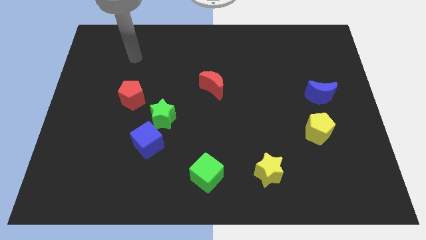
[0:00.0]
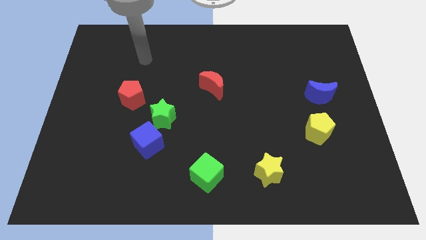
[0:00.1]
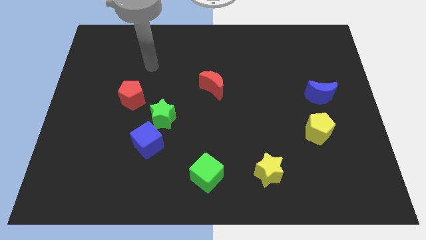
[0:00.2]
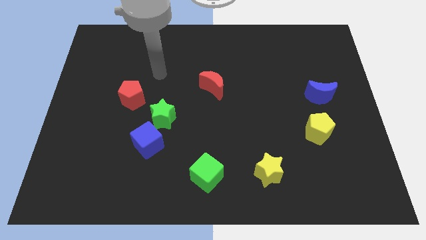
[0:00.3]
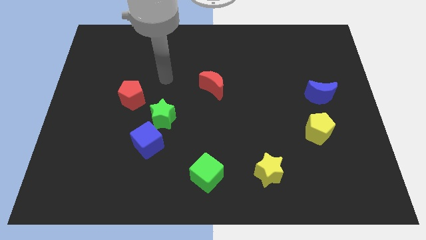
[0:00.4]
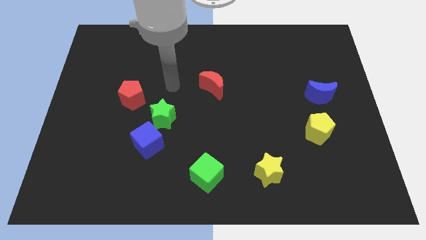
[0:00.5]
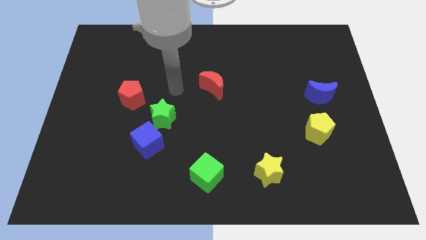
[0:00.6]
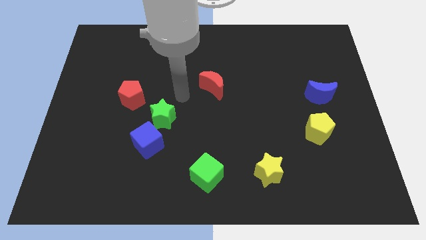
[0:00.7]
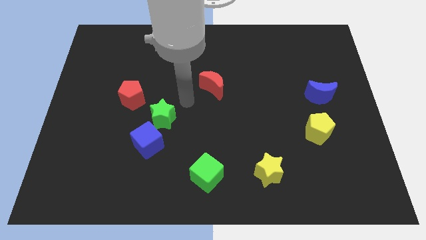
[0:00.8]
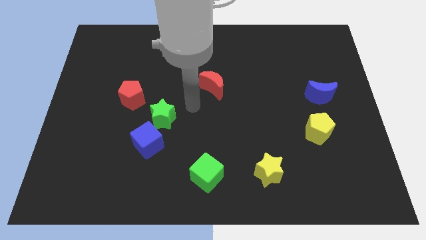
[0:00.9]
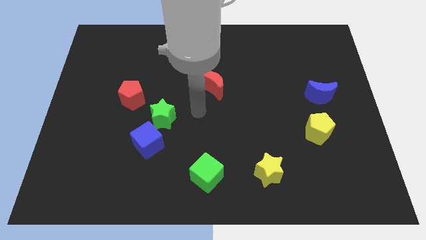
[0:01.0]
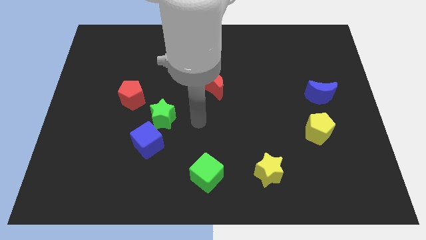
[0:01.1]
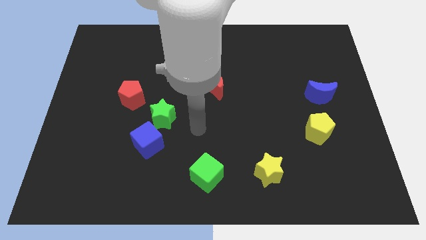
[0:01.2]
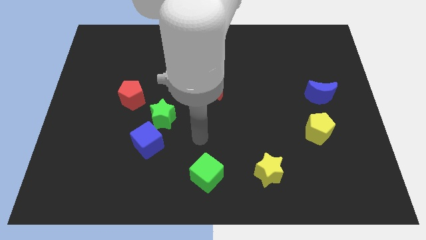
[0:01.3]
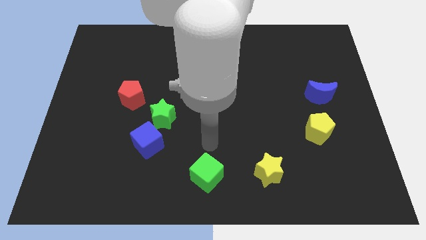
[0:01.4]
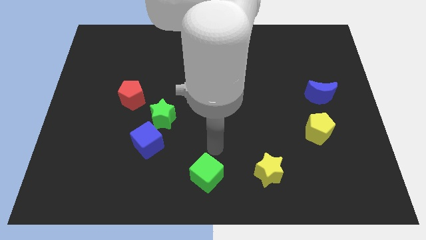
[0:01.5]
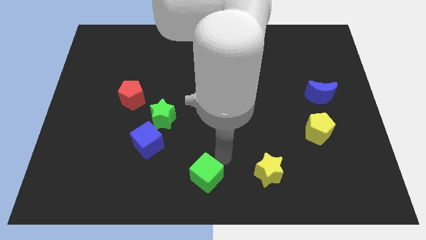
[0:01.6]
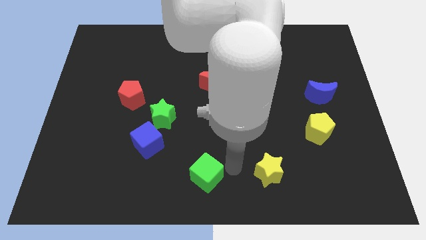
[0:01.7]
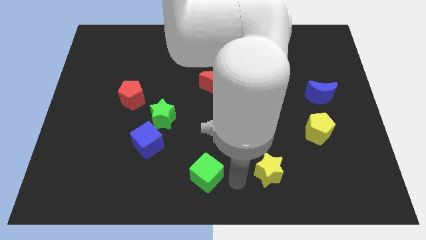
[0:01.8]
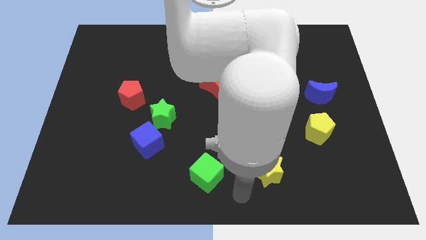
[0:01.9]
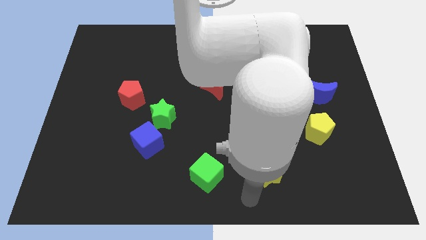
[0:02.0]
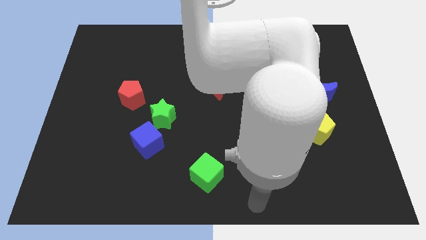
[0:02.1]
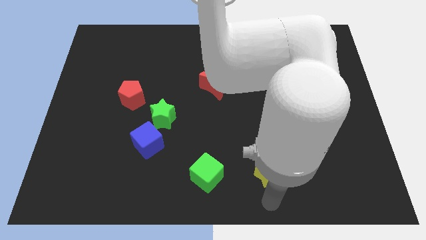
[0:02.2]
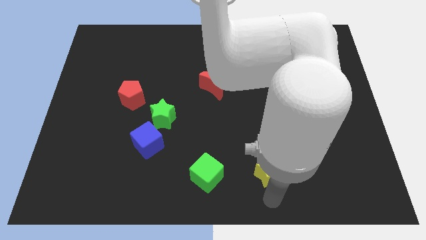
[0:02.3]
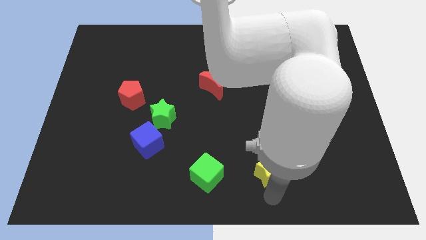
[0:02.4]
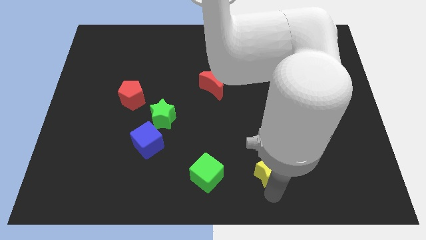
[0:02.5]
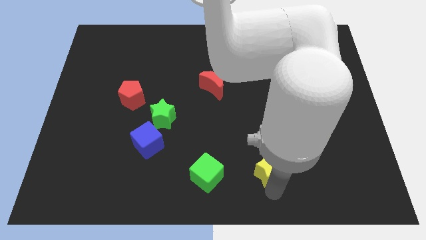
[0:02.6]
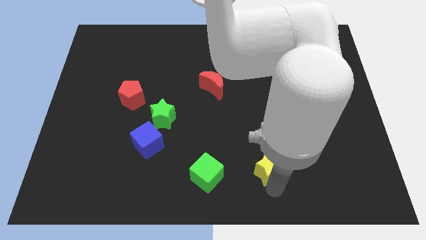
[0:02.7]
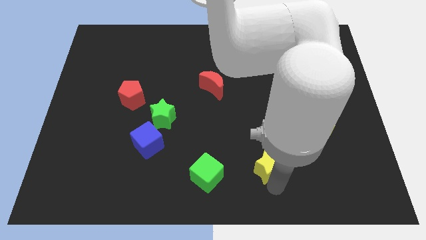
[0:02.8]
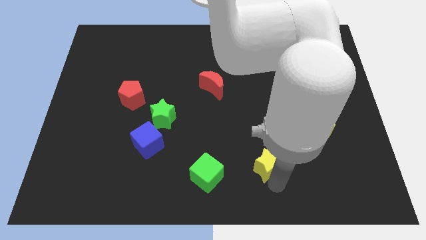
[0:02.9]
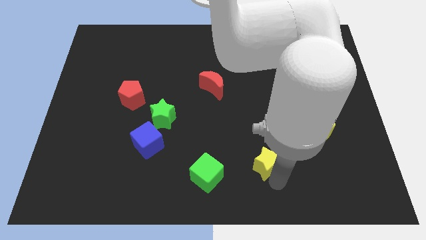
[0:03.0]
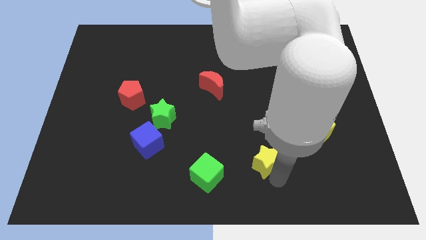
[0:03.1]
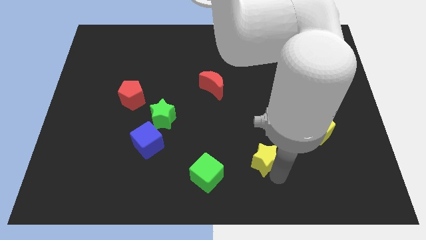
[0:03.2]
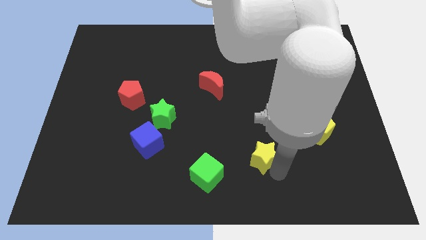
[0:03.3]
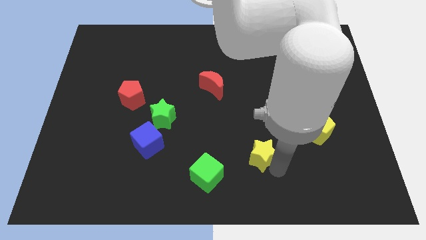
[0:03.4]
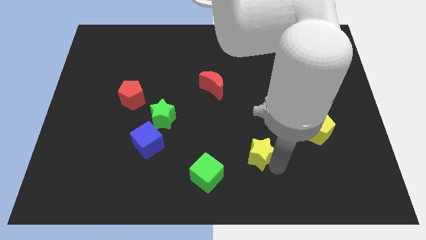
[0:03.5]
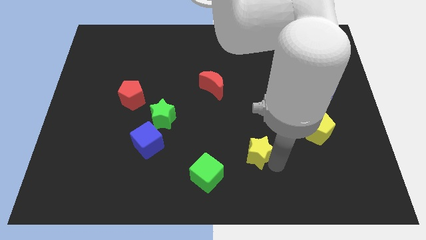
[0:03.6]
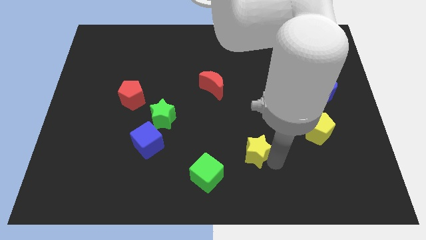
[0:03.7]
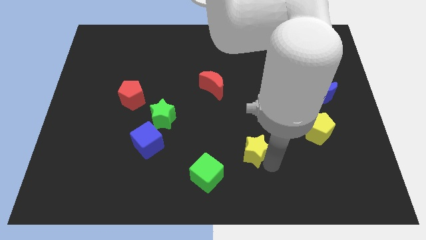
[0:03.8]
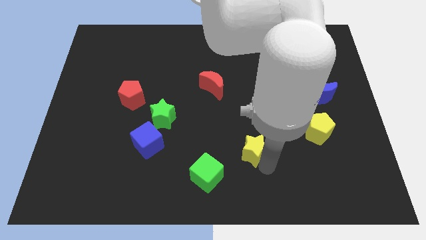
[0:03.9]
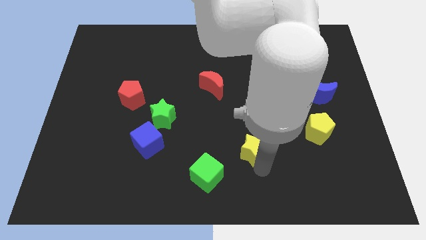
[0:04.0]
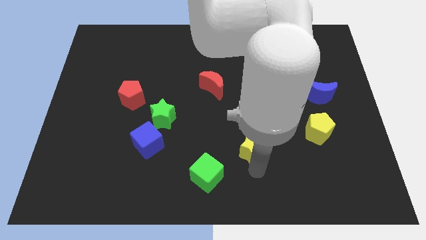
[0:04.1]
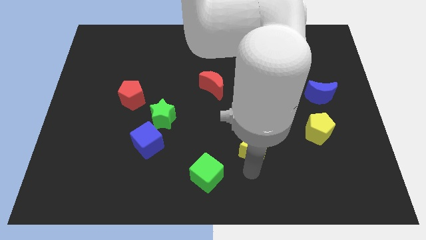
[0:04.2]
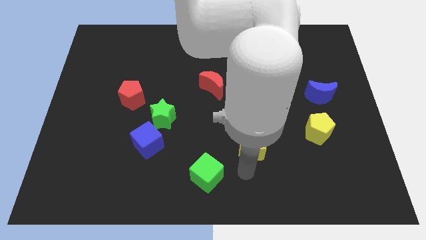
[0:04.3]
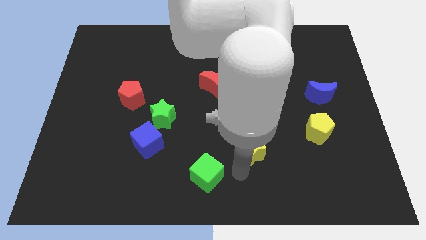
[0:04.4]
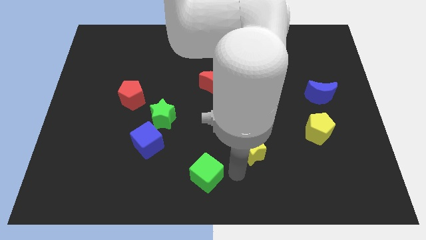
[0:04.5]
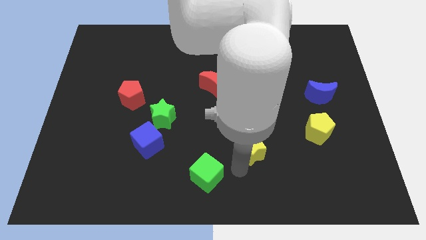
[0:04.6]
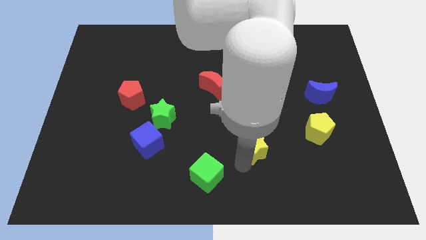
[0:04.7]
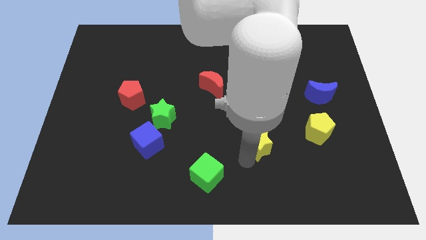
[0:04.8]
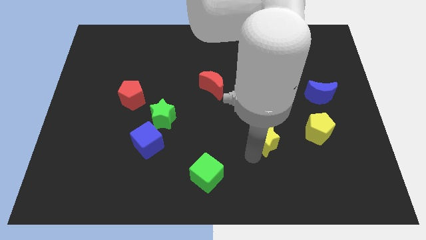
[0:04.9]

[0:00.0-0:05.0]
slide the yellow star upwards a little bit

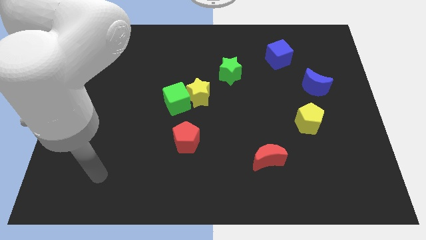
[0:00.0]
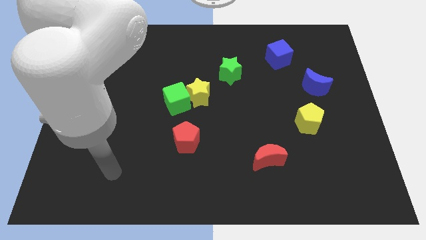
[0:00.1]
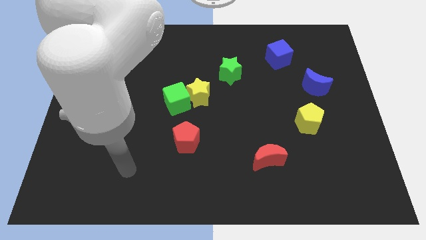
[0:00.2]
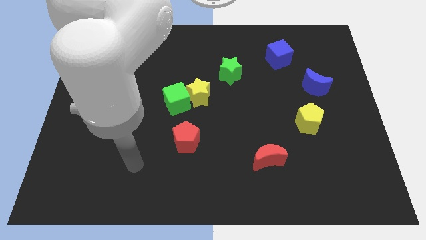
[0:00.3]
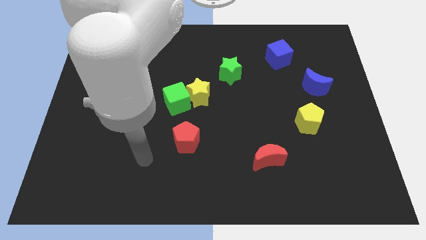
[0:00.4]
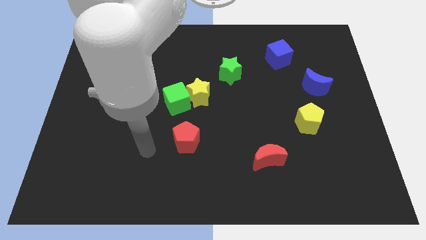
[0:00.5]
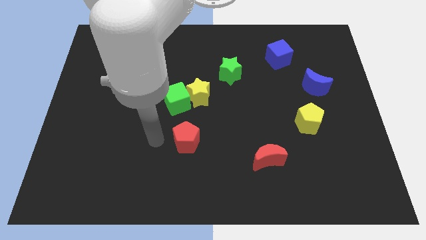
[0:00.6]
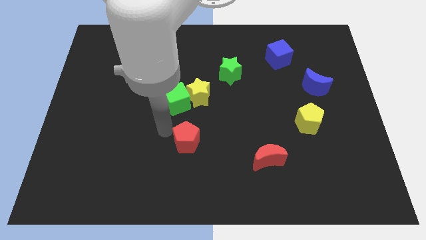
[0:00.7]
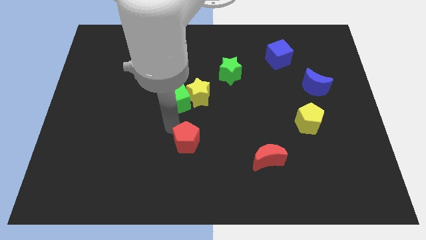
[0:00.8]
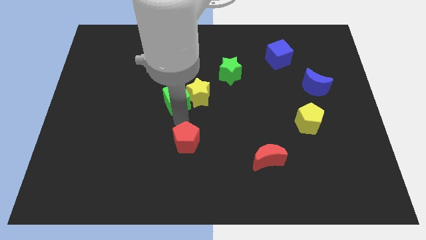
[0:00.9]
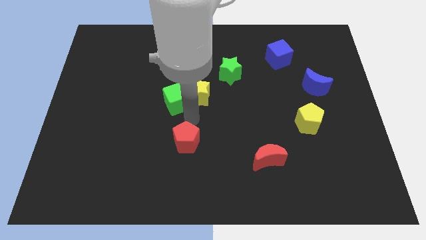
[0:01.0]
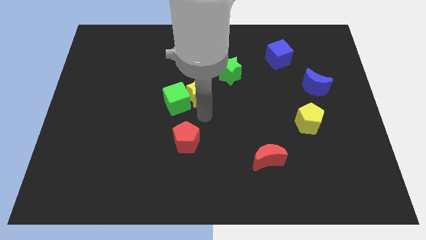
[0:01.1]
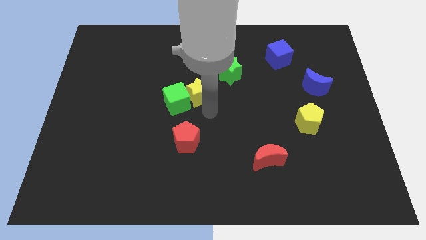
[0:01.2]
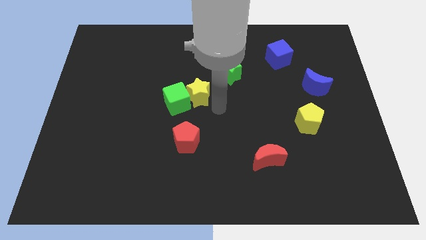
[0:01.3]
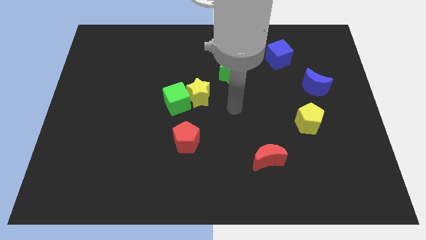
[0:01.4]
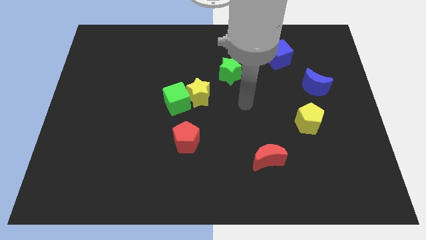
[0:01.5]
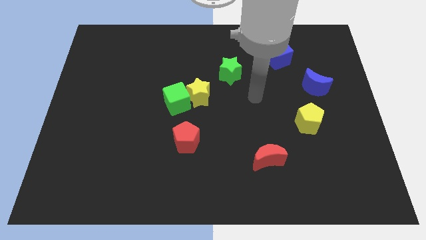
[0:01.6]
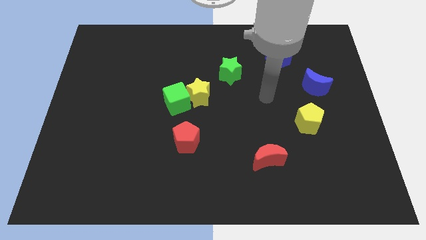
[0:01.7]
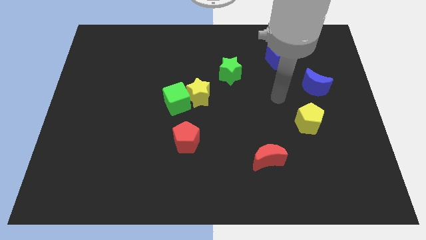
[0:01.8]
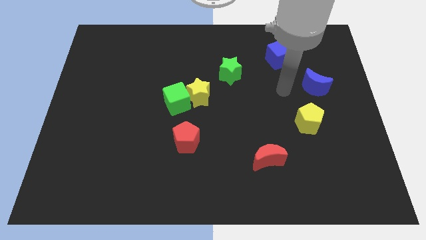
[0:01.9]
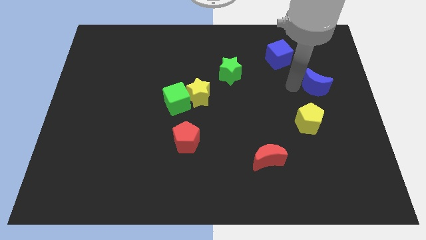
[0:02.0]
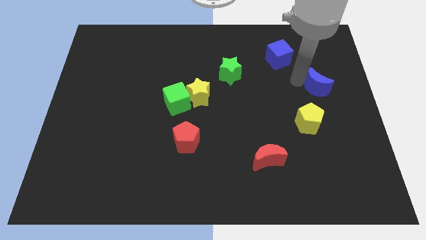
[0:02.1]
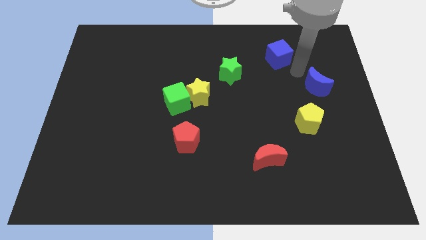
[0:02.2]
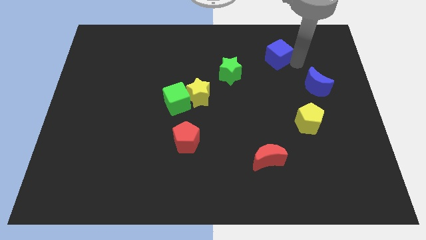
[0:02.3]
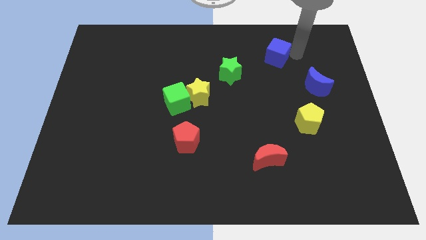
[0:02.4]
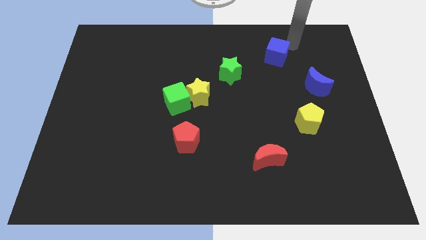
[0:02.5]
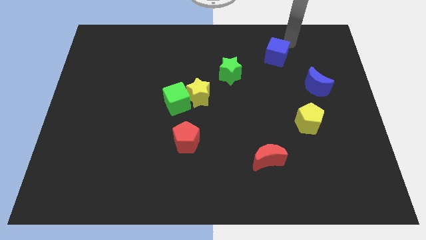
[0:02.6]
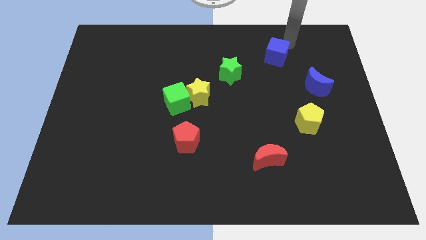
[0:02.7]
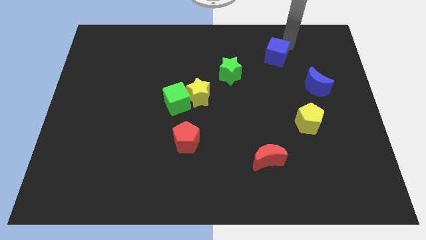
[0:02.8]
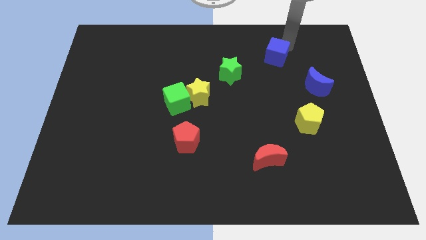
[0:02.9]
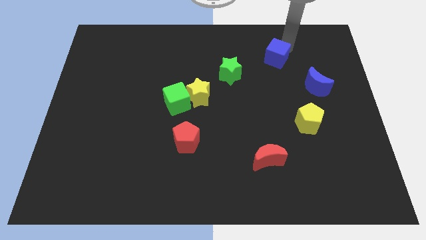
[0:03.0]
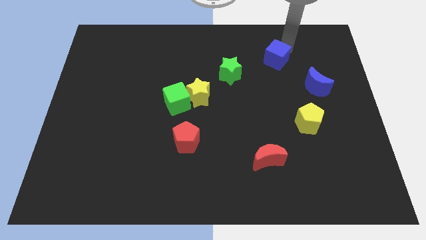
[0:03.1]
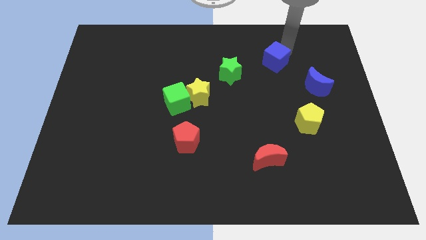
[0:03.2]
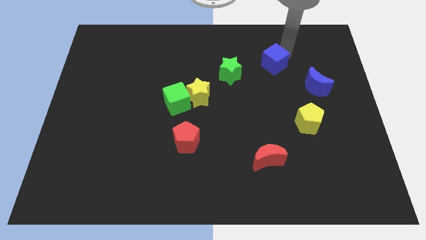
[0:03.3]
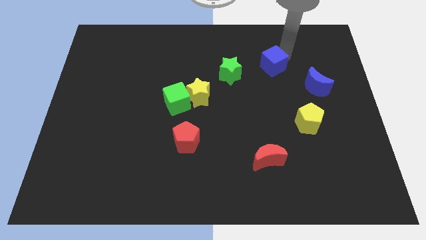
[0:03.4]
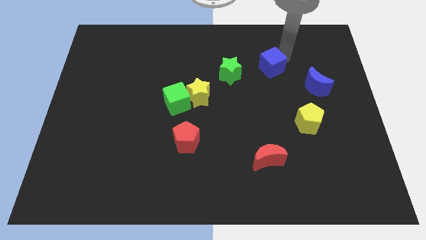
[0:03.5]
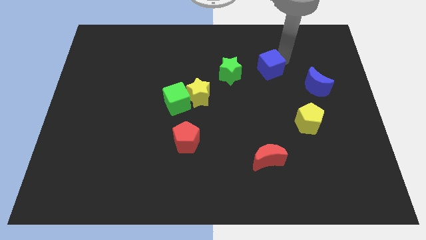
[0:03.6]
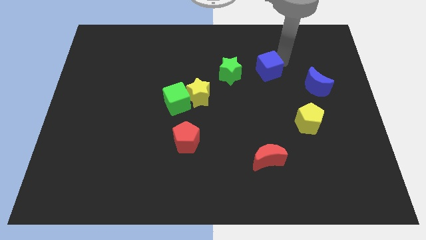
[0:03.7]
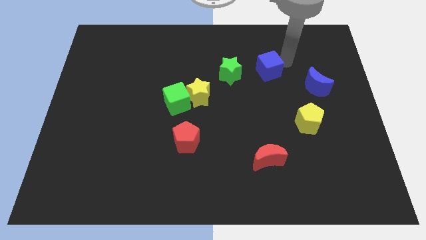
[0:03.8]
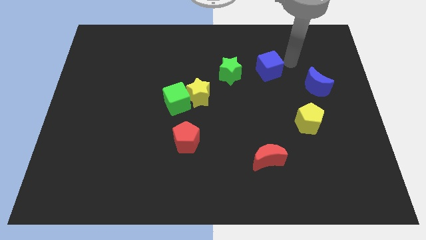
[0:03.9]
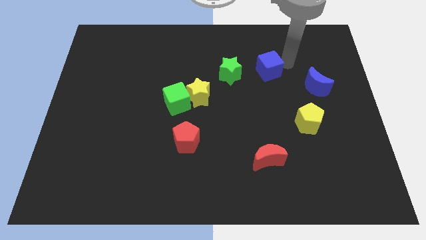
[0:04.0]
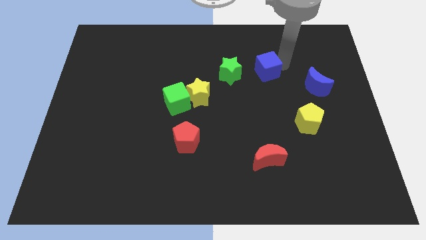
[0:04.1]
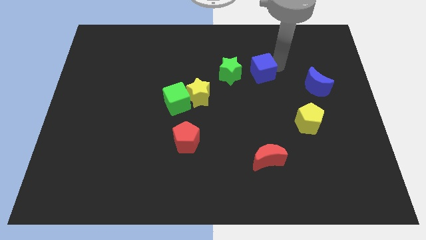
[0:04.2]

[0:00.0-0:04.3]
slide the blue cube slightly downwards and then left
